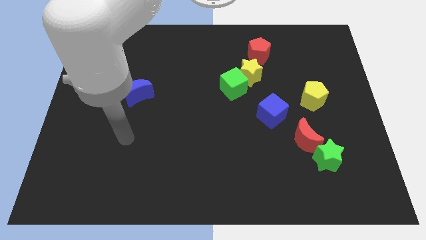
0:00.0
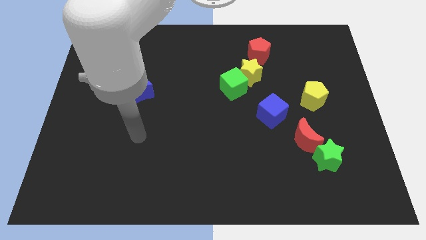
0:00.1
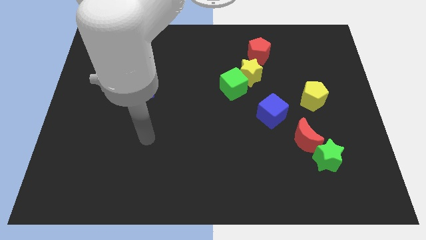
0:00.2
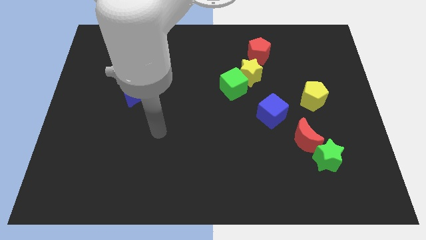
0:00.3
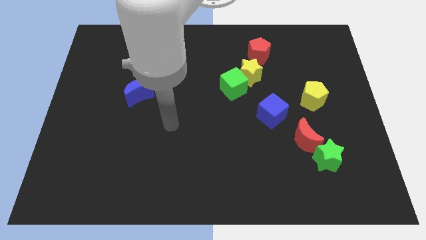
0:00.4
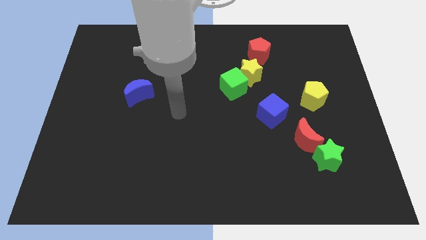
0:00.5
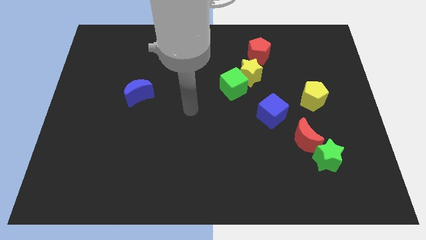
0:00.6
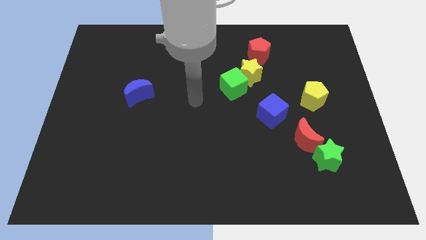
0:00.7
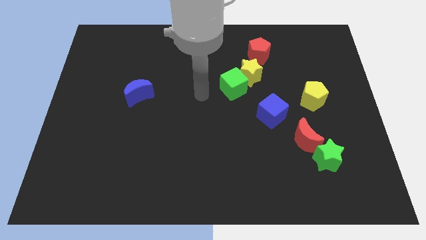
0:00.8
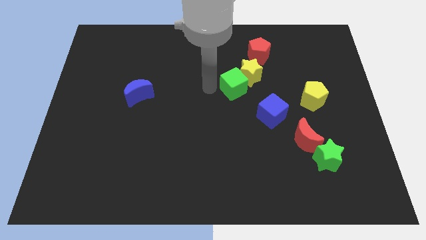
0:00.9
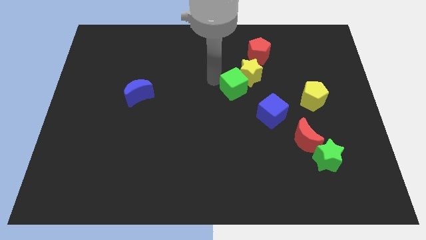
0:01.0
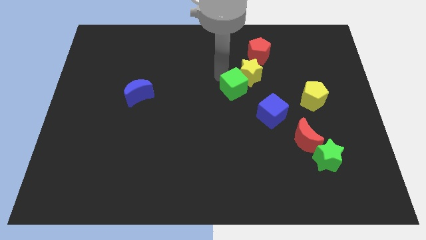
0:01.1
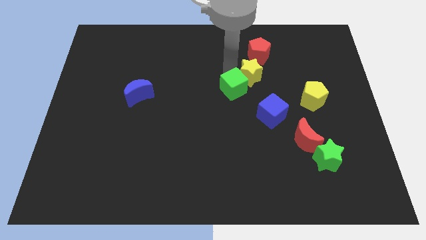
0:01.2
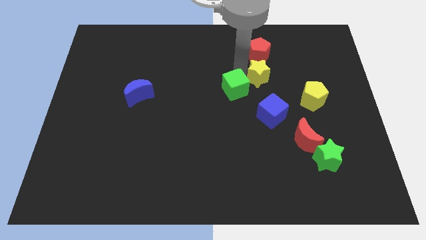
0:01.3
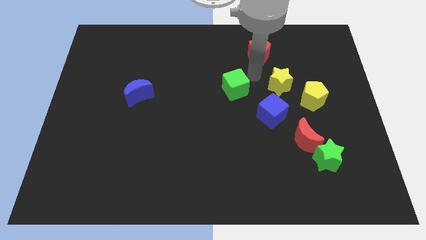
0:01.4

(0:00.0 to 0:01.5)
move the green cube away from the yellow star

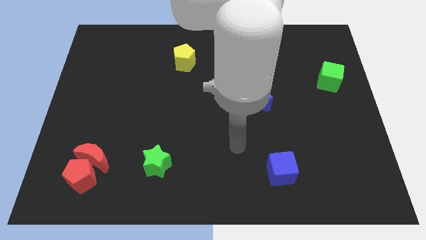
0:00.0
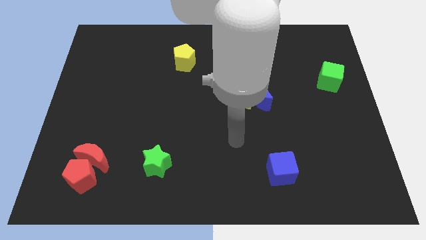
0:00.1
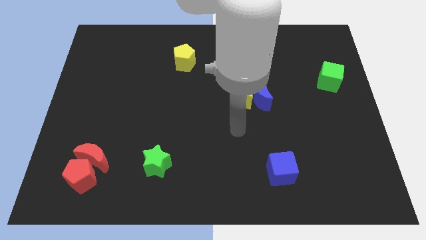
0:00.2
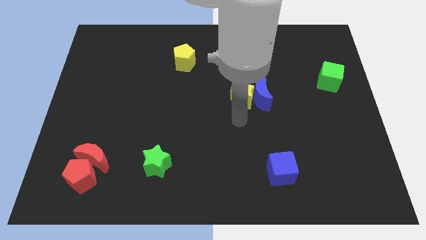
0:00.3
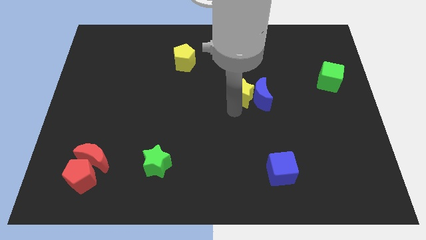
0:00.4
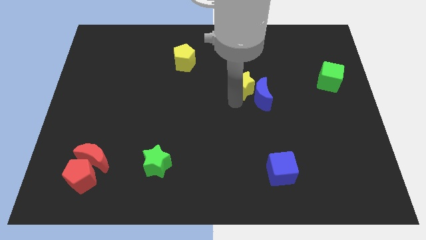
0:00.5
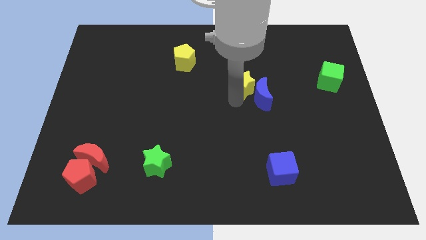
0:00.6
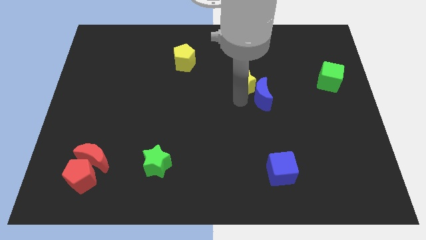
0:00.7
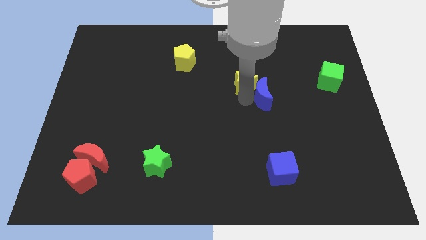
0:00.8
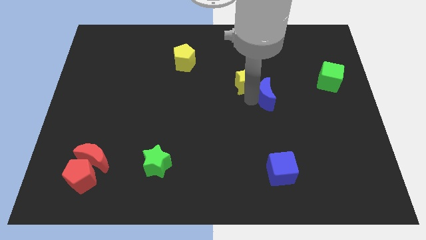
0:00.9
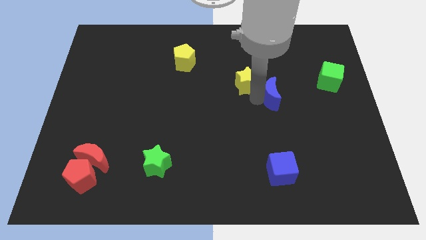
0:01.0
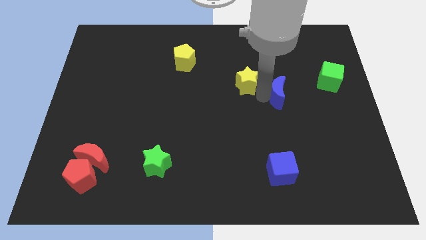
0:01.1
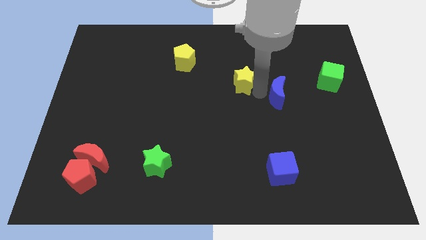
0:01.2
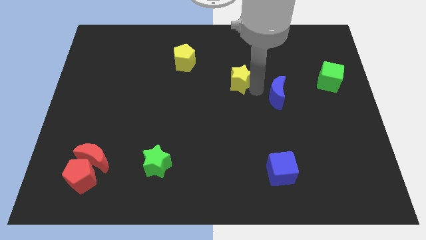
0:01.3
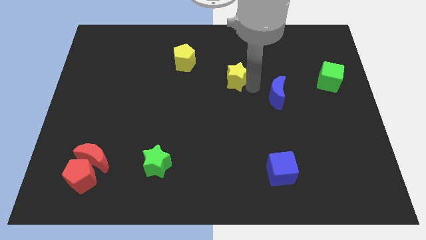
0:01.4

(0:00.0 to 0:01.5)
separate the blue moon from the yellow star

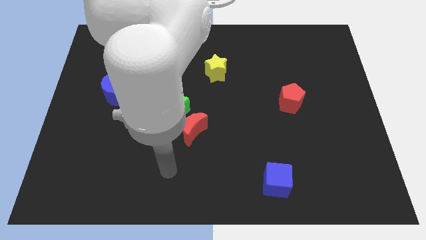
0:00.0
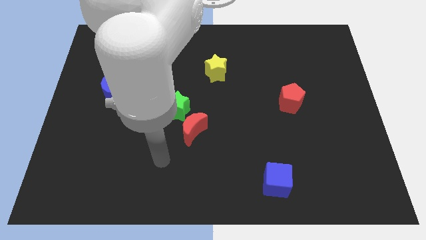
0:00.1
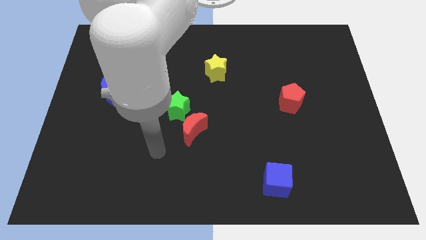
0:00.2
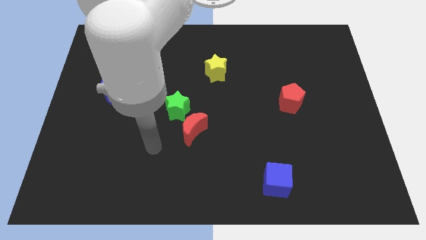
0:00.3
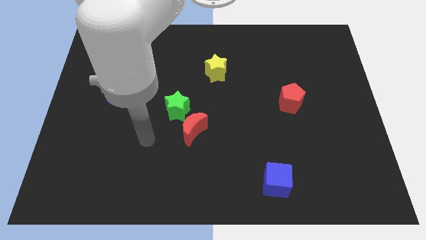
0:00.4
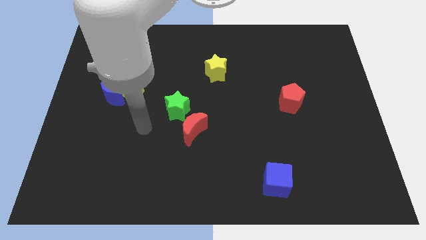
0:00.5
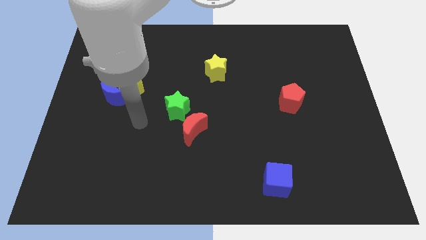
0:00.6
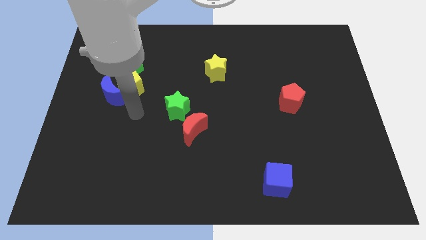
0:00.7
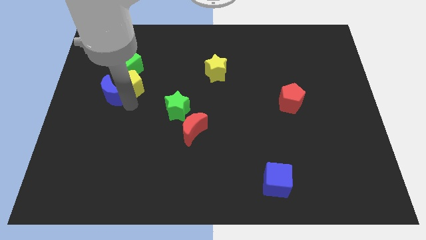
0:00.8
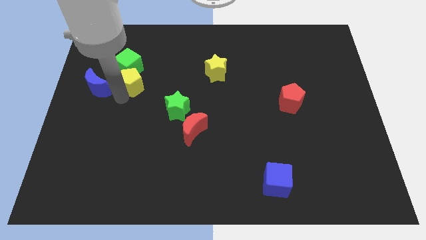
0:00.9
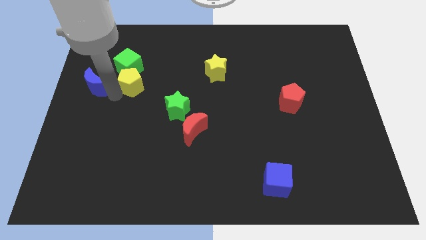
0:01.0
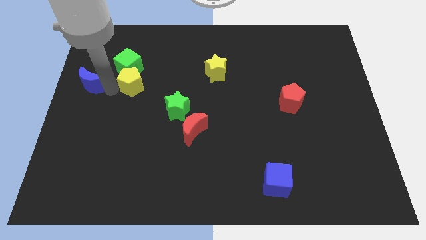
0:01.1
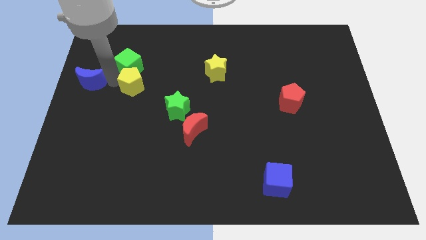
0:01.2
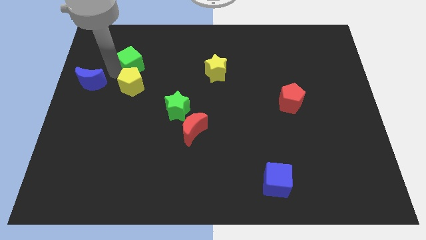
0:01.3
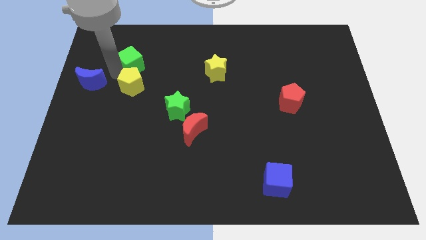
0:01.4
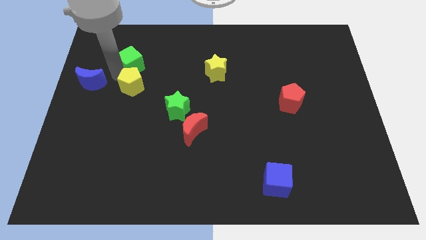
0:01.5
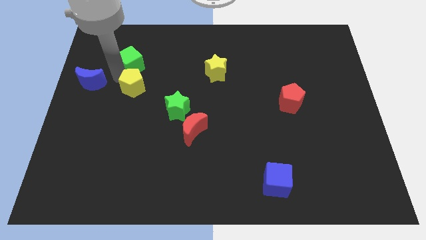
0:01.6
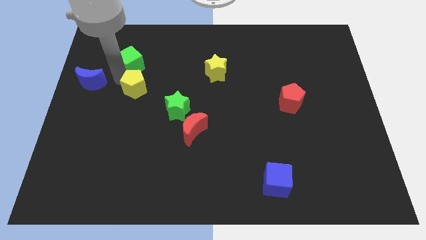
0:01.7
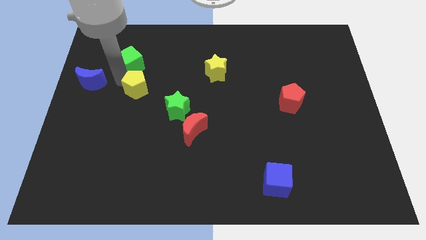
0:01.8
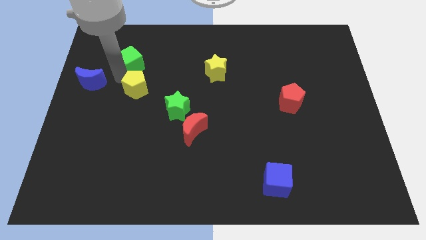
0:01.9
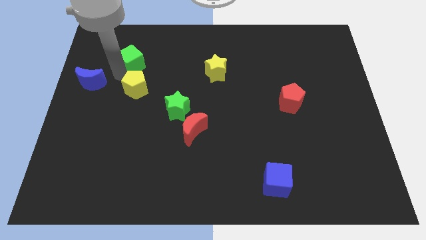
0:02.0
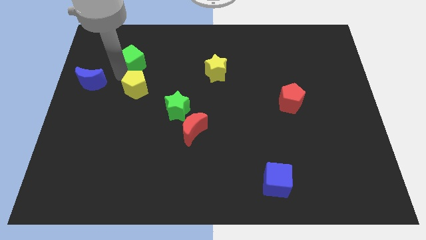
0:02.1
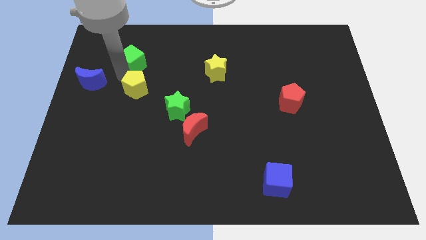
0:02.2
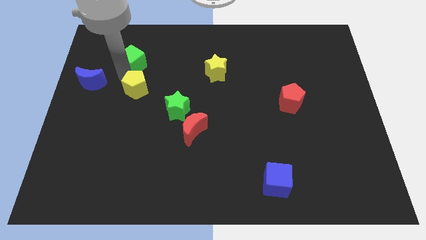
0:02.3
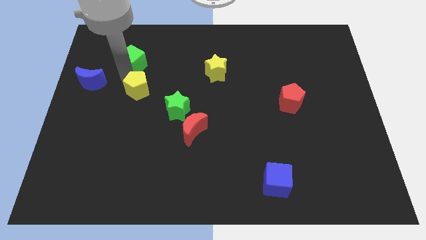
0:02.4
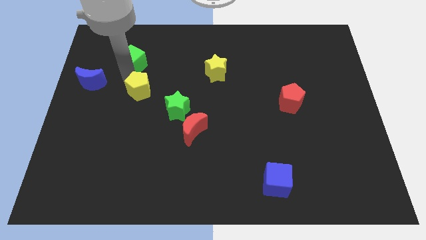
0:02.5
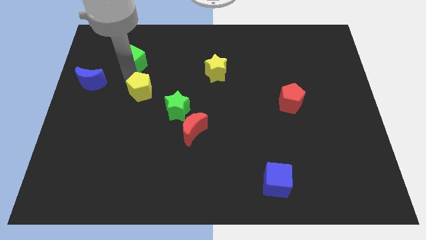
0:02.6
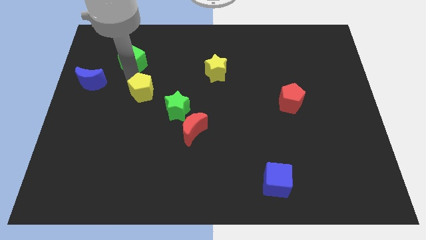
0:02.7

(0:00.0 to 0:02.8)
move the yellow pentagon away from the blue moon and green cube

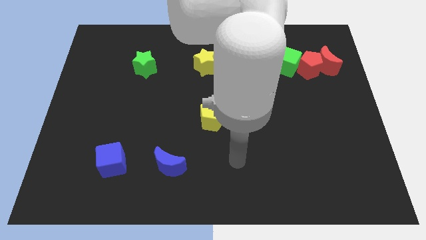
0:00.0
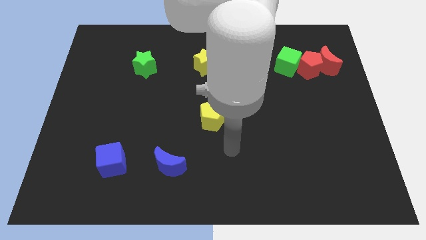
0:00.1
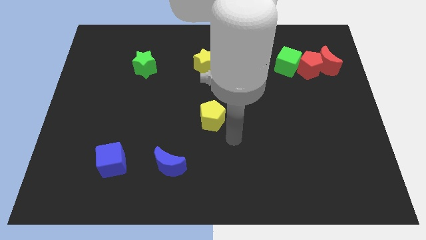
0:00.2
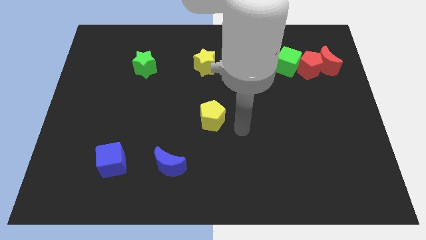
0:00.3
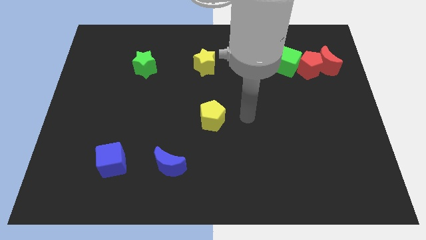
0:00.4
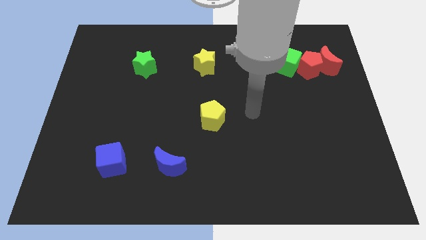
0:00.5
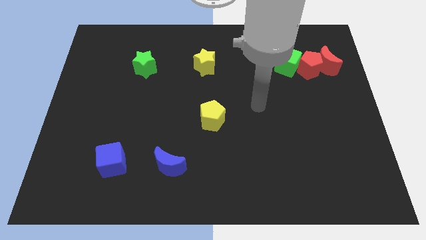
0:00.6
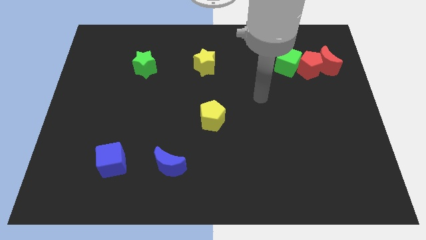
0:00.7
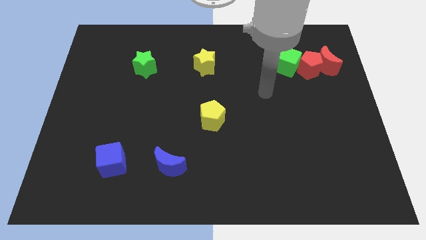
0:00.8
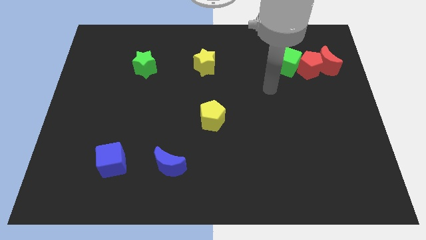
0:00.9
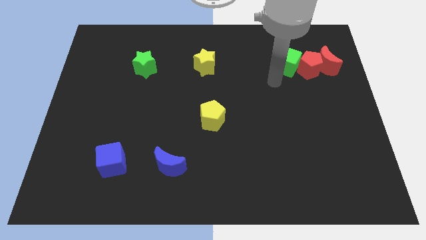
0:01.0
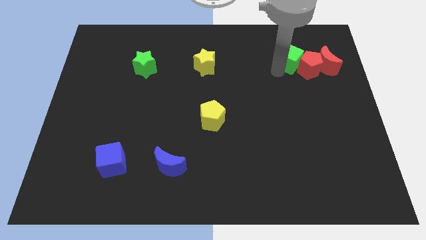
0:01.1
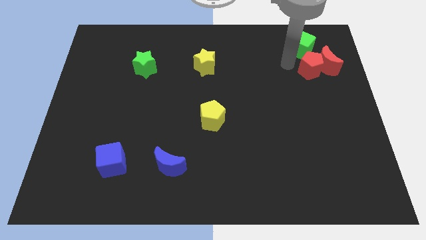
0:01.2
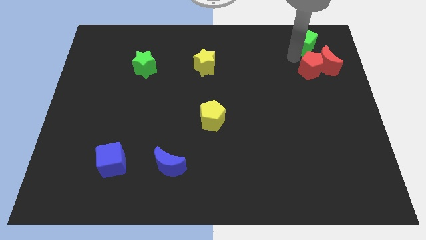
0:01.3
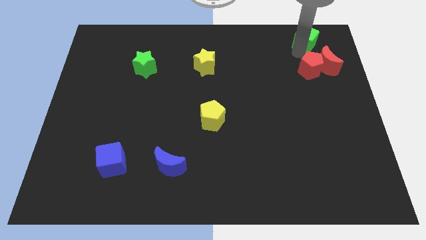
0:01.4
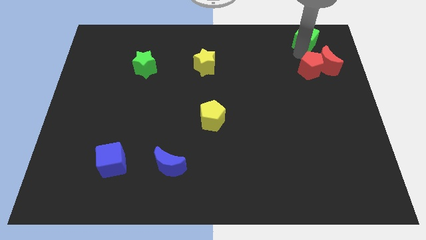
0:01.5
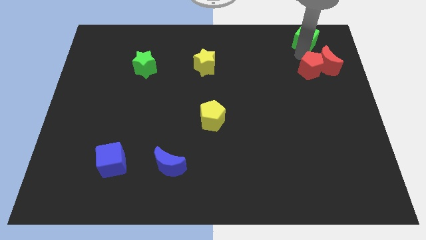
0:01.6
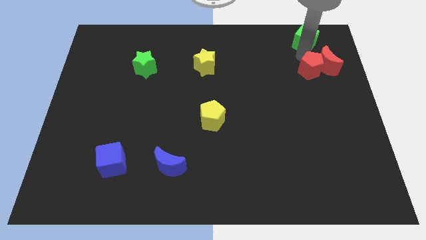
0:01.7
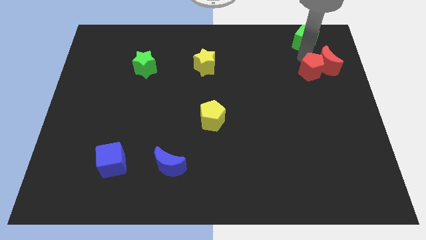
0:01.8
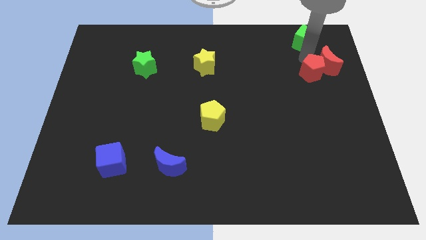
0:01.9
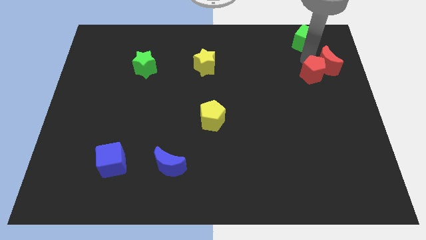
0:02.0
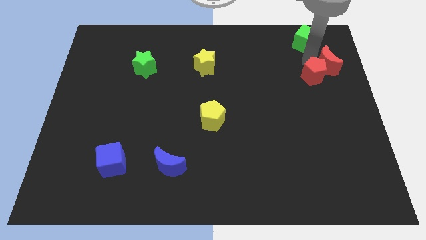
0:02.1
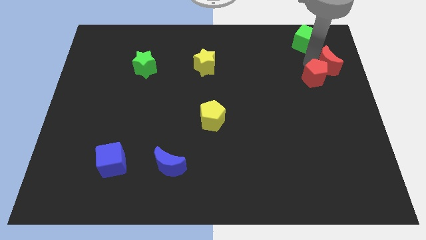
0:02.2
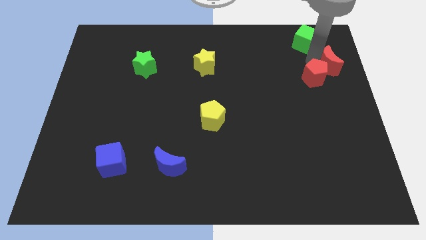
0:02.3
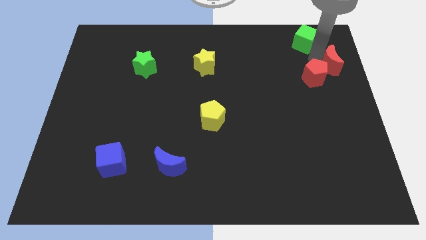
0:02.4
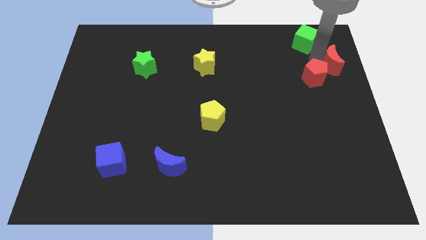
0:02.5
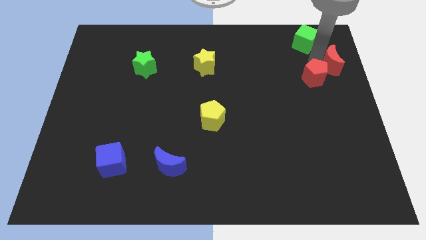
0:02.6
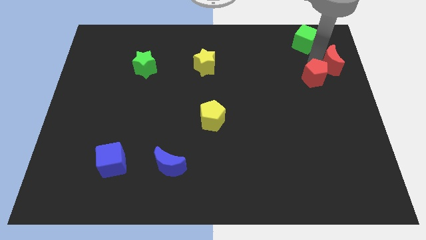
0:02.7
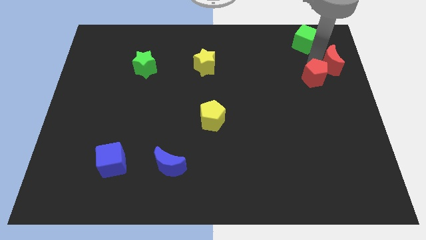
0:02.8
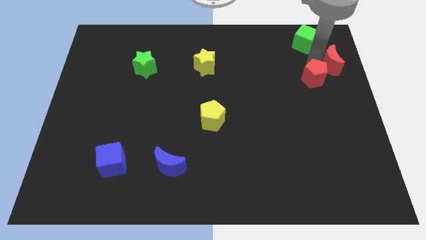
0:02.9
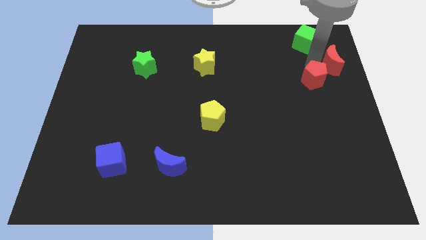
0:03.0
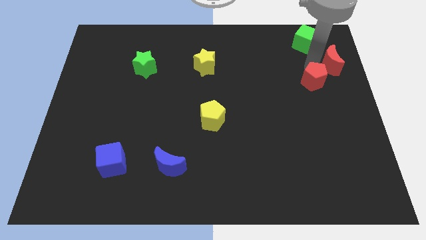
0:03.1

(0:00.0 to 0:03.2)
move the red pentagon away from the red moon and green cube

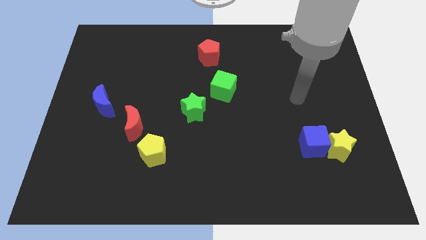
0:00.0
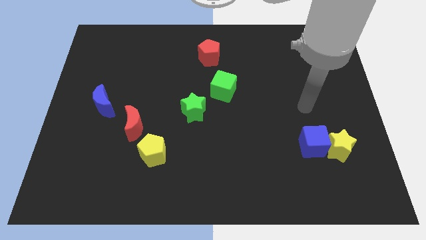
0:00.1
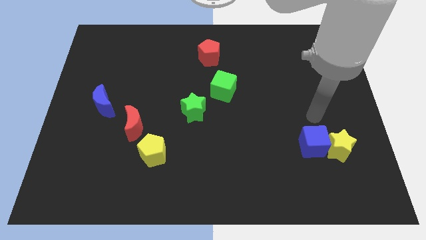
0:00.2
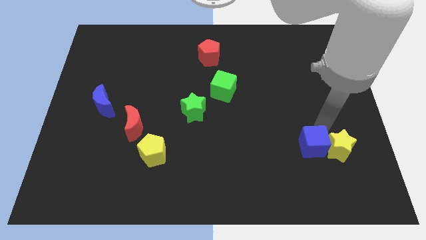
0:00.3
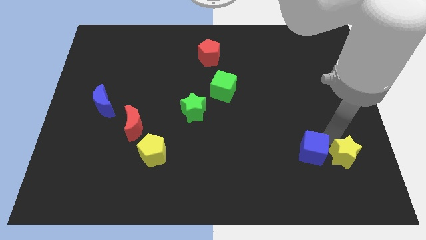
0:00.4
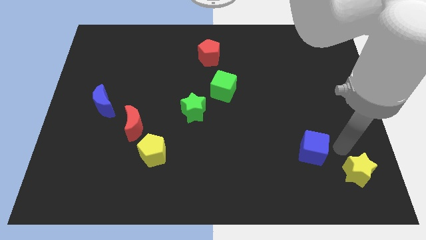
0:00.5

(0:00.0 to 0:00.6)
move the blue cube away from the yellow star
